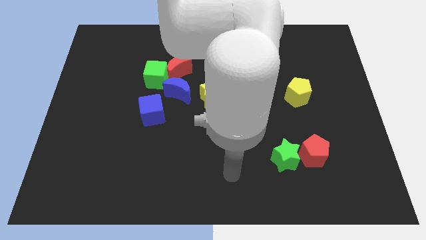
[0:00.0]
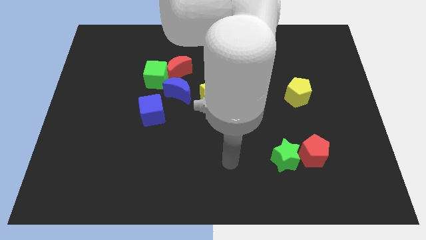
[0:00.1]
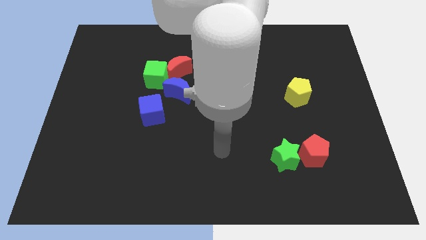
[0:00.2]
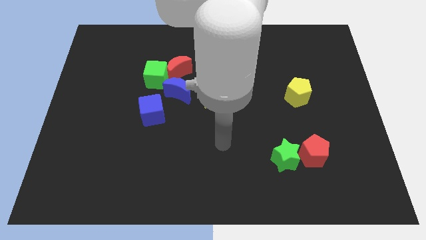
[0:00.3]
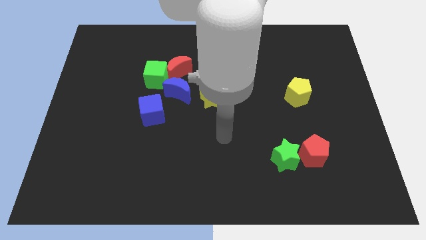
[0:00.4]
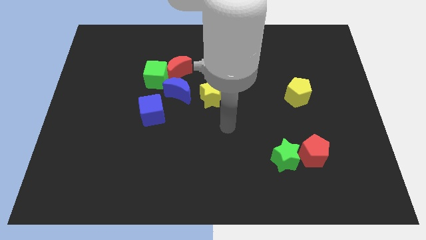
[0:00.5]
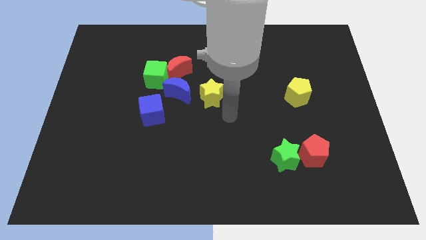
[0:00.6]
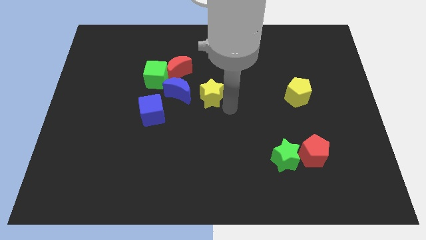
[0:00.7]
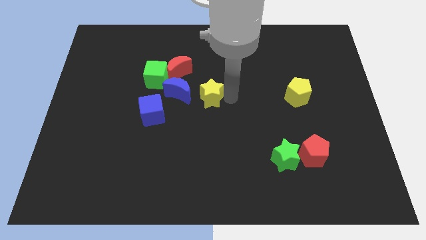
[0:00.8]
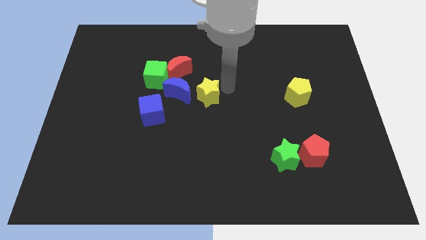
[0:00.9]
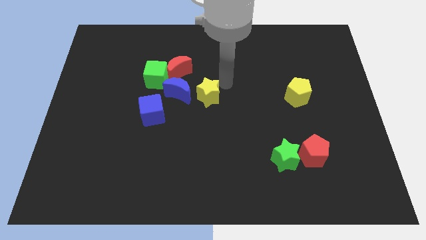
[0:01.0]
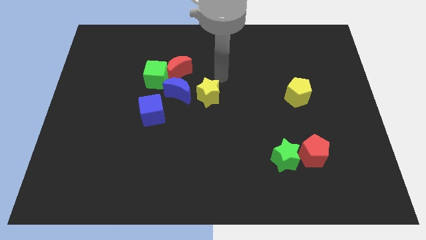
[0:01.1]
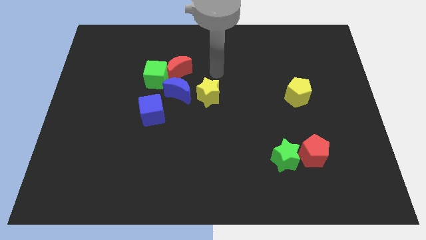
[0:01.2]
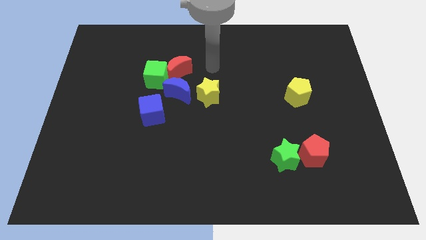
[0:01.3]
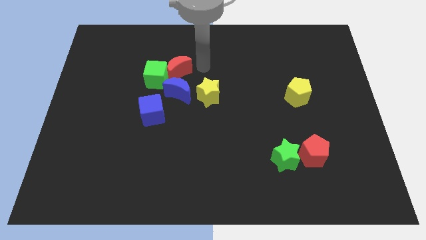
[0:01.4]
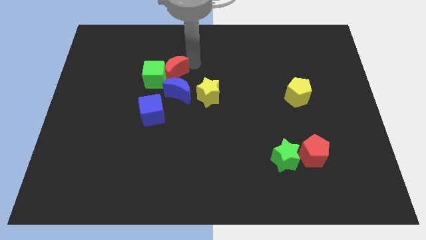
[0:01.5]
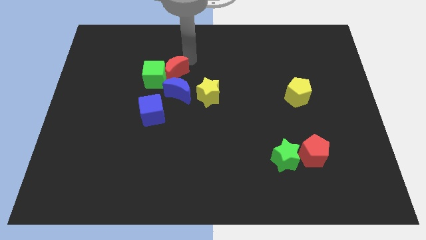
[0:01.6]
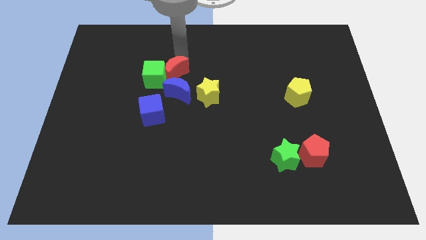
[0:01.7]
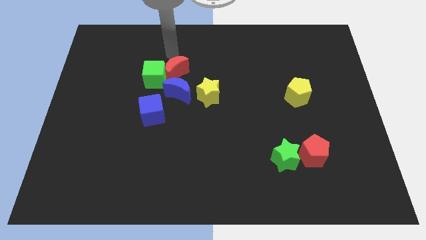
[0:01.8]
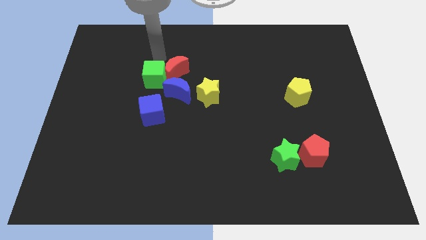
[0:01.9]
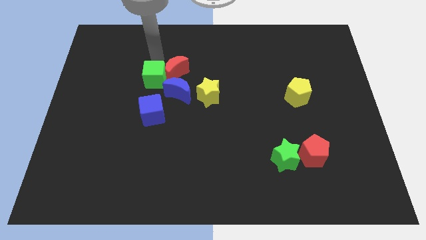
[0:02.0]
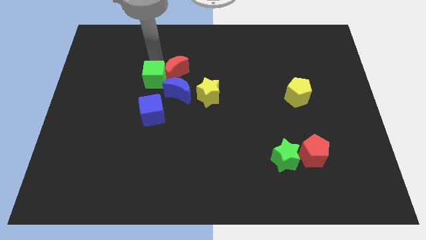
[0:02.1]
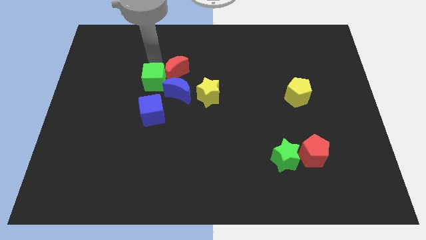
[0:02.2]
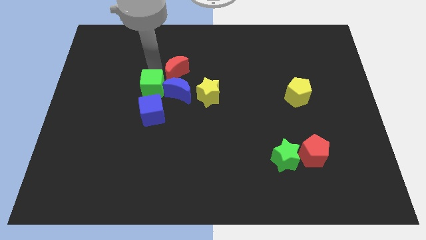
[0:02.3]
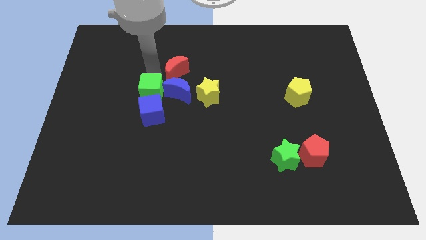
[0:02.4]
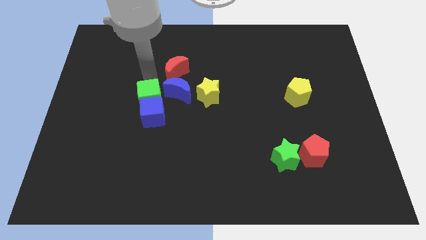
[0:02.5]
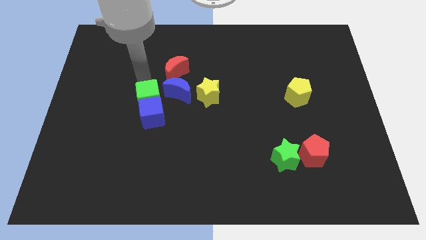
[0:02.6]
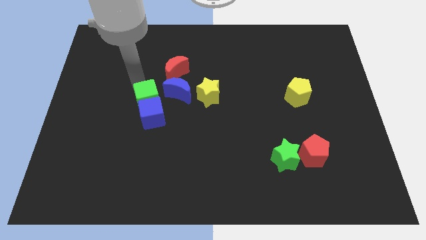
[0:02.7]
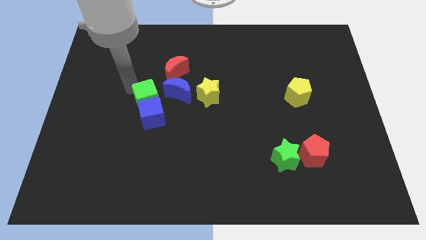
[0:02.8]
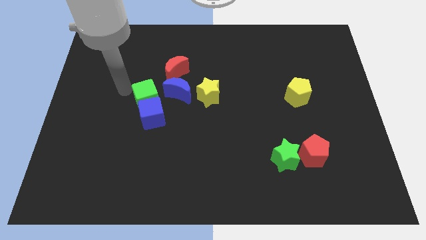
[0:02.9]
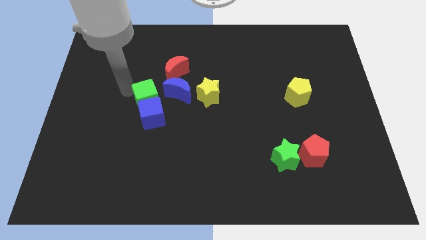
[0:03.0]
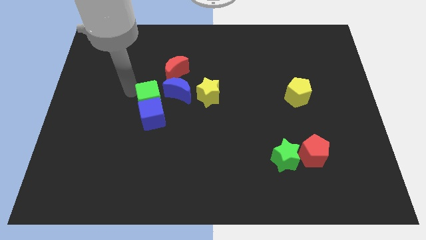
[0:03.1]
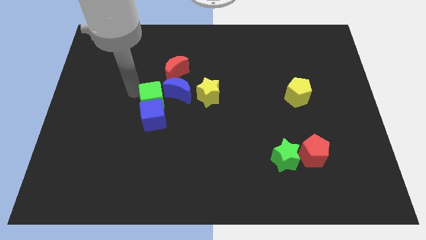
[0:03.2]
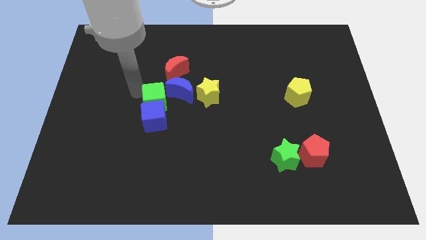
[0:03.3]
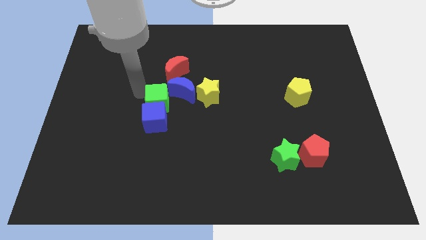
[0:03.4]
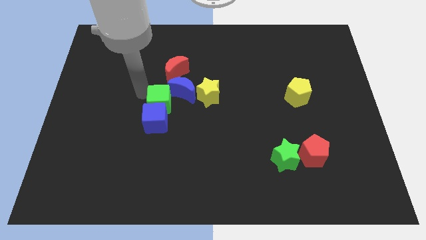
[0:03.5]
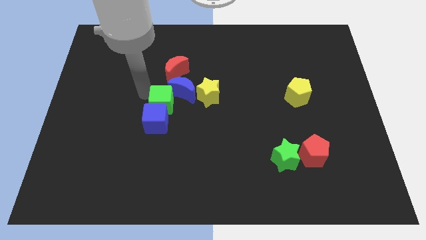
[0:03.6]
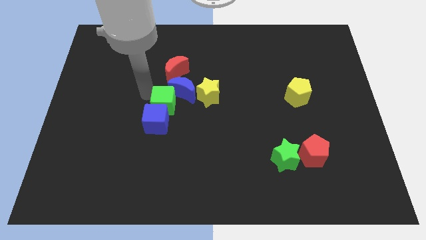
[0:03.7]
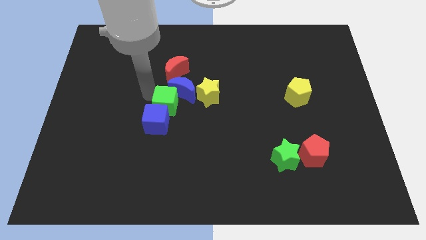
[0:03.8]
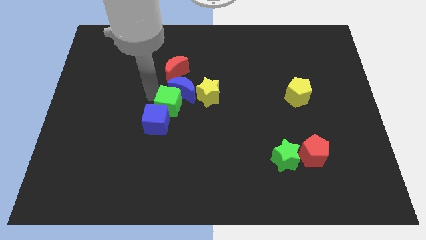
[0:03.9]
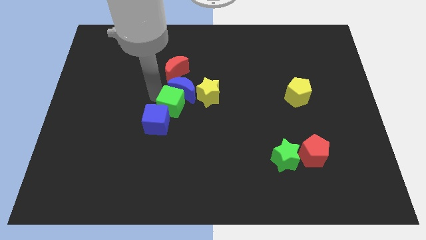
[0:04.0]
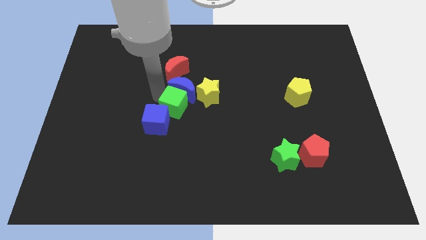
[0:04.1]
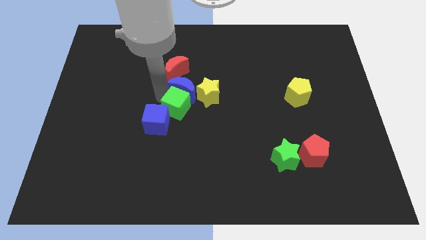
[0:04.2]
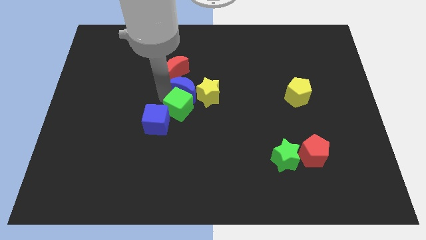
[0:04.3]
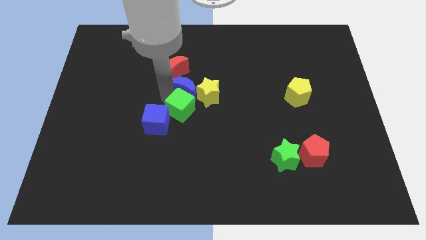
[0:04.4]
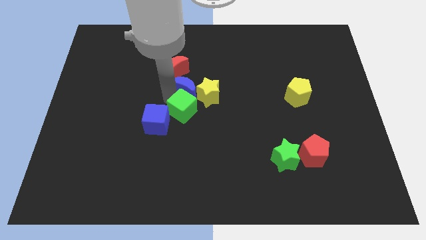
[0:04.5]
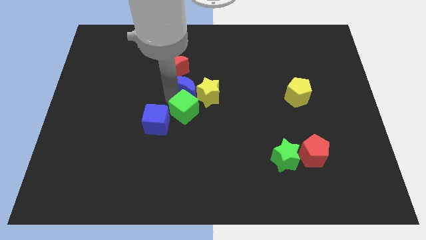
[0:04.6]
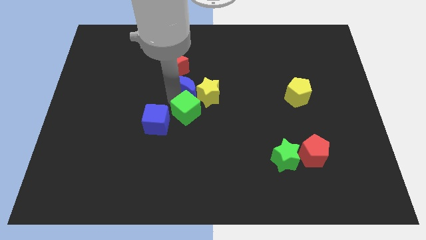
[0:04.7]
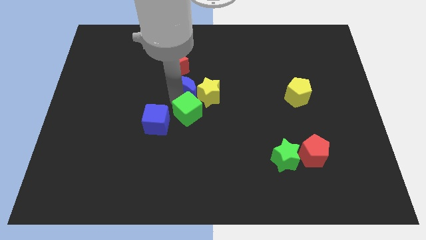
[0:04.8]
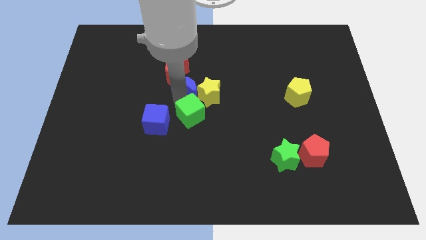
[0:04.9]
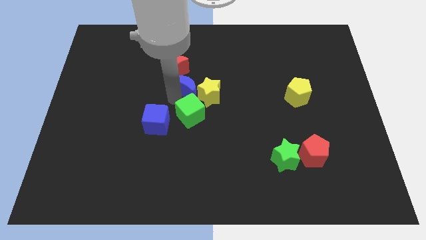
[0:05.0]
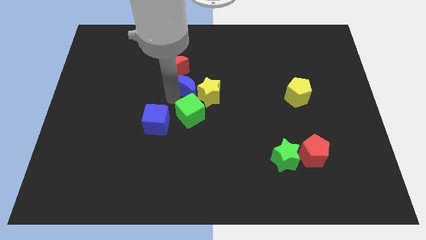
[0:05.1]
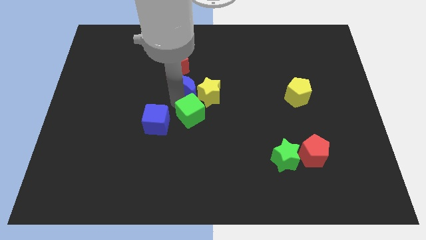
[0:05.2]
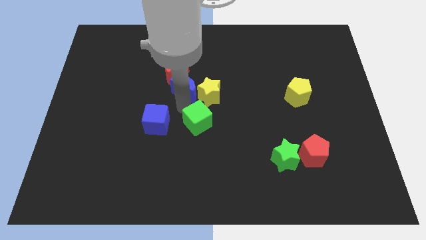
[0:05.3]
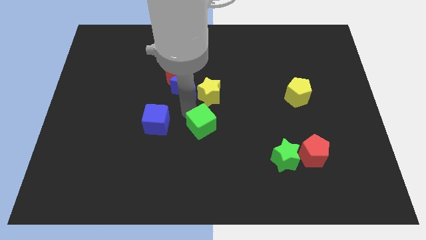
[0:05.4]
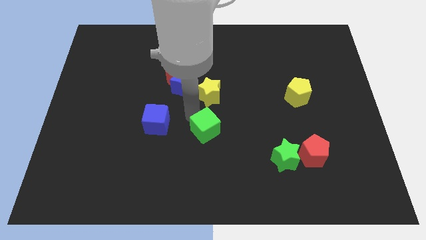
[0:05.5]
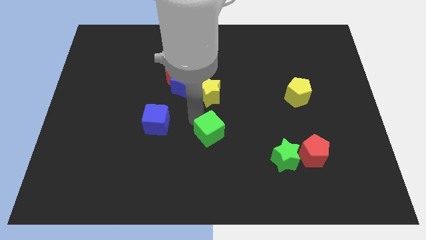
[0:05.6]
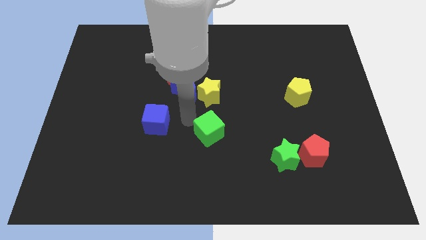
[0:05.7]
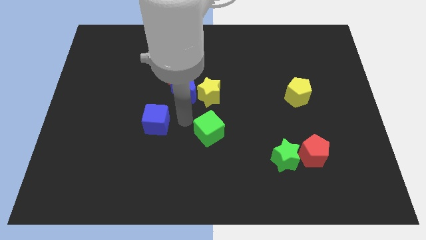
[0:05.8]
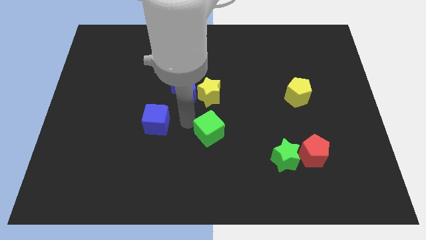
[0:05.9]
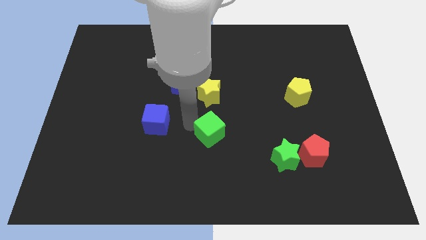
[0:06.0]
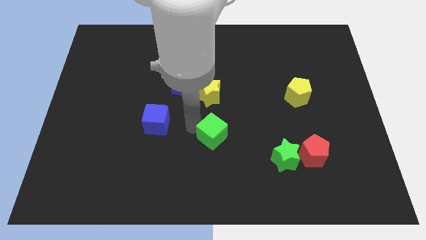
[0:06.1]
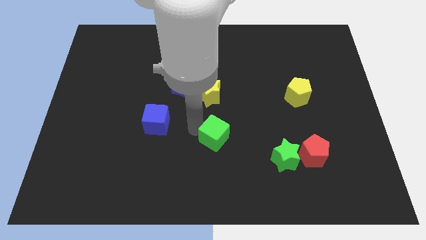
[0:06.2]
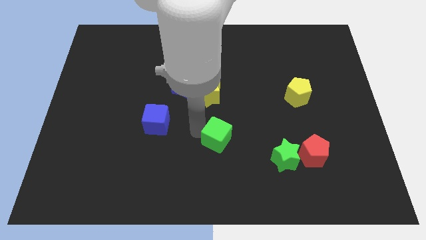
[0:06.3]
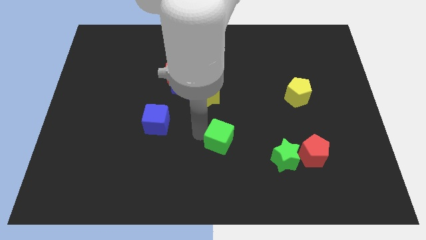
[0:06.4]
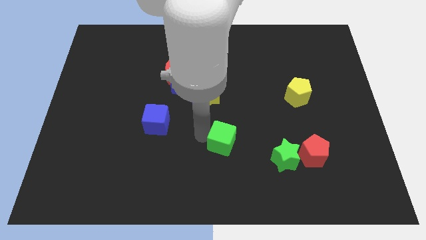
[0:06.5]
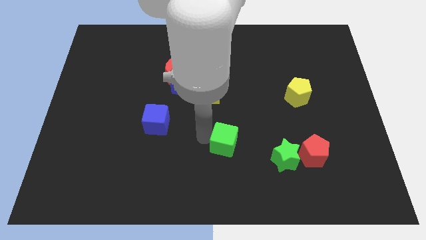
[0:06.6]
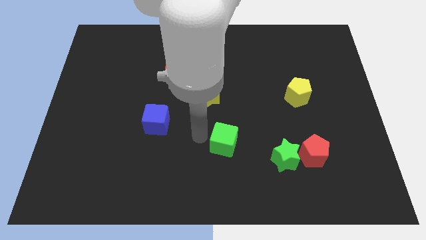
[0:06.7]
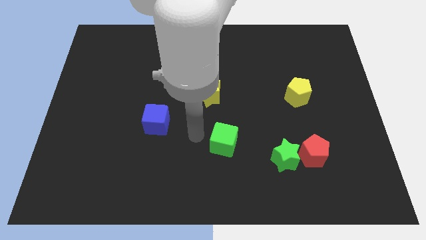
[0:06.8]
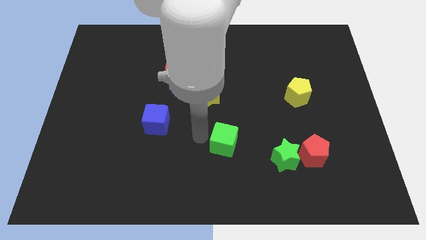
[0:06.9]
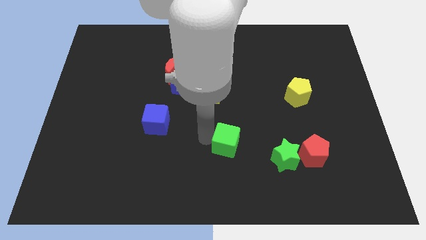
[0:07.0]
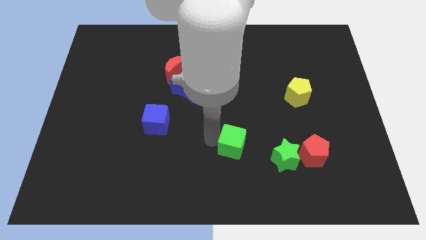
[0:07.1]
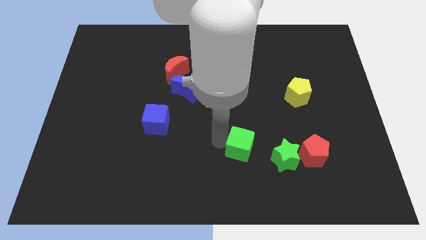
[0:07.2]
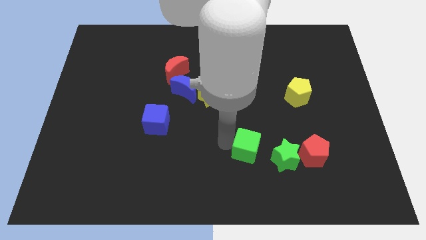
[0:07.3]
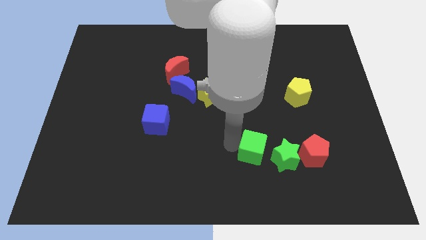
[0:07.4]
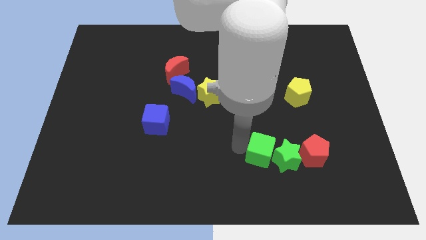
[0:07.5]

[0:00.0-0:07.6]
move the green cube next to the green star
